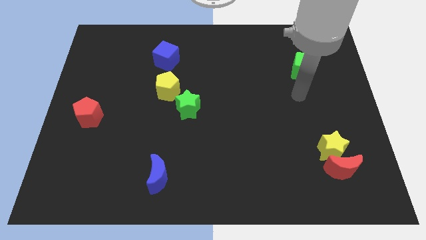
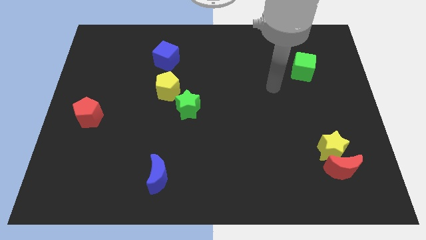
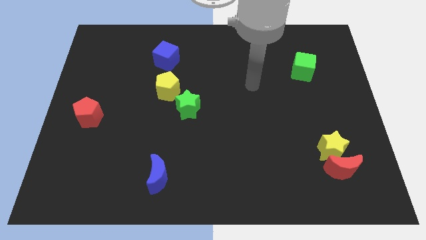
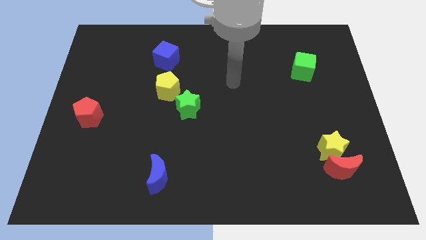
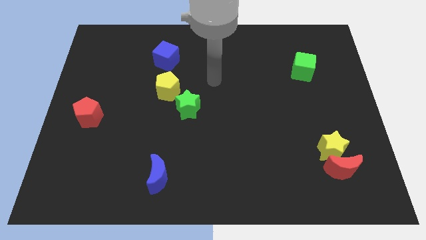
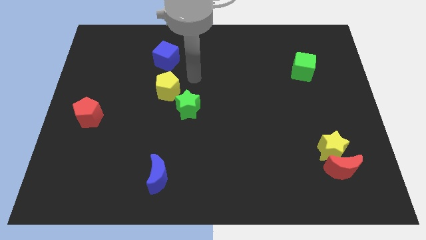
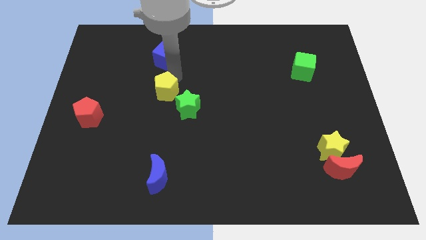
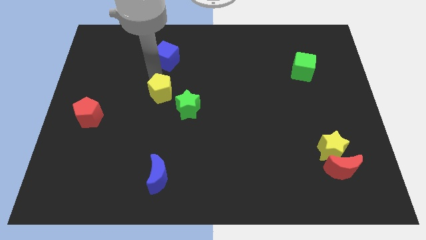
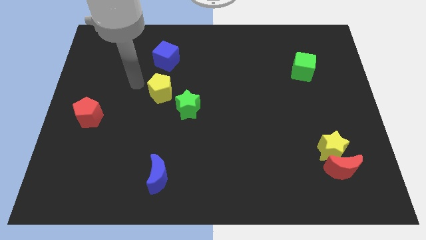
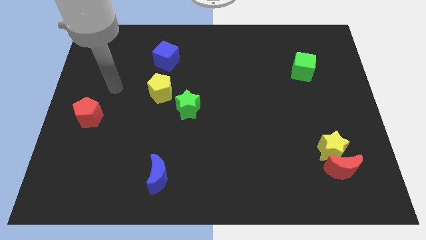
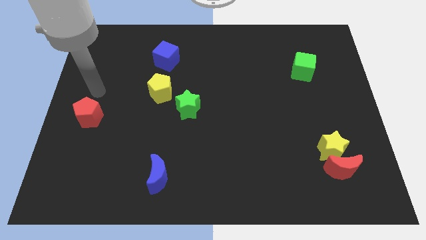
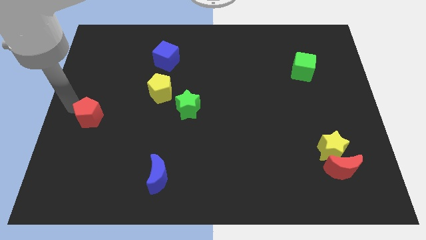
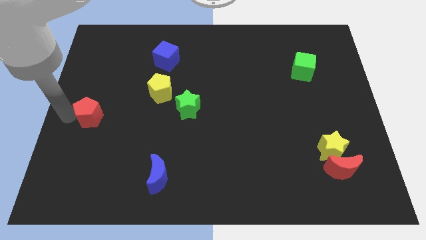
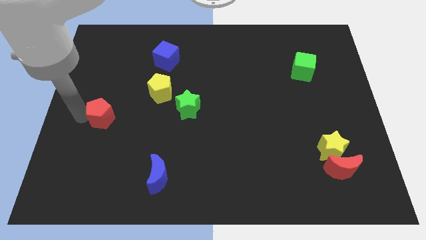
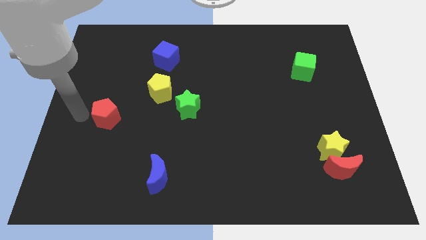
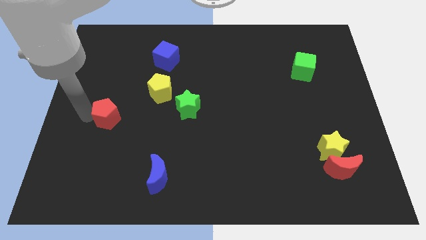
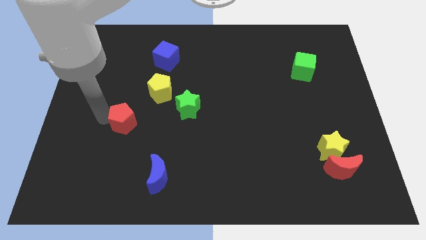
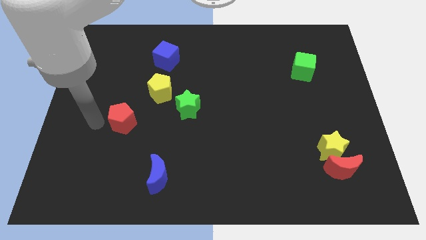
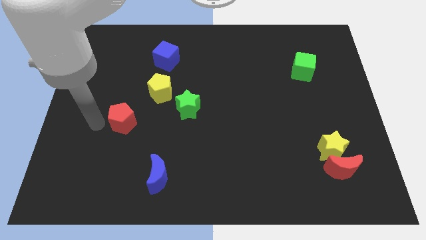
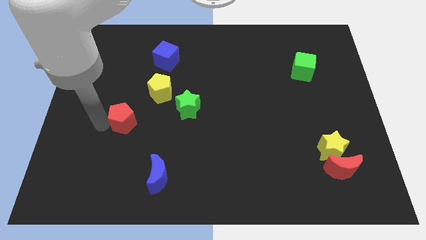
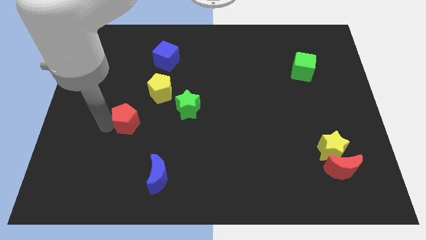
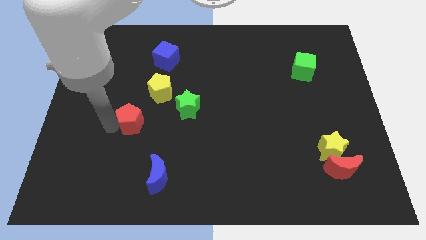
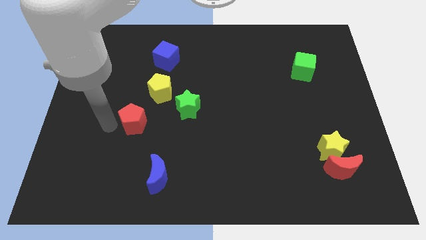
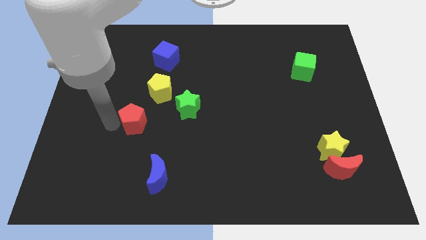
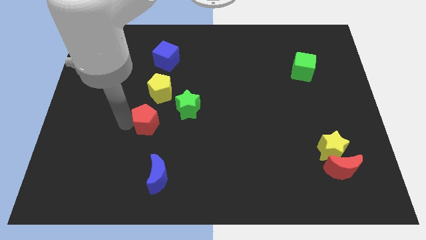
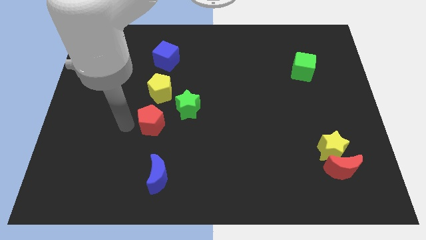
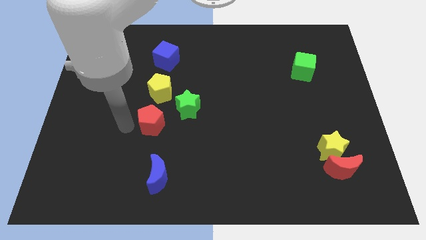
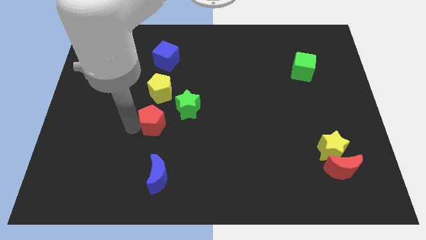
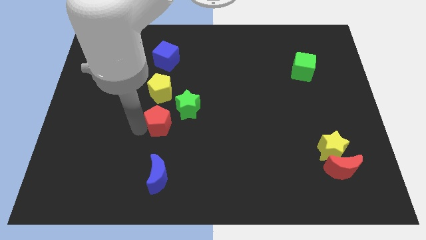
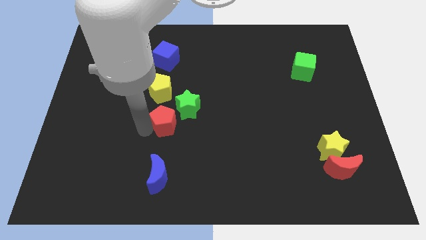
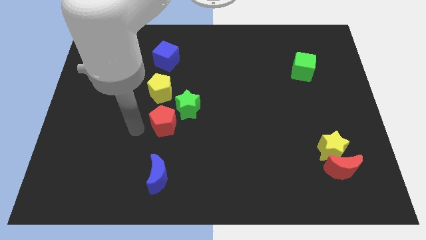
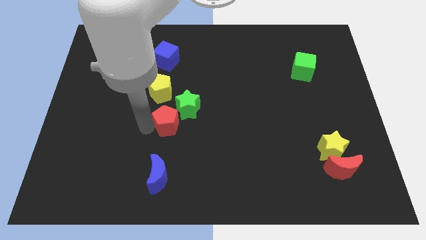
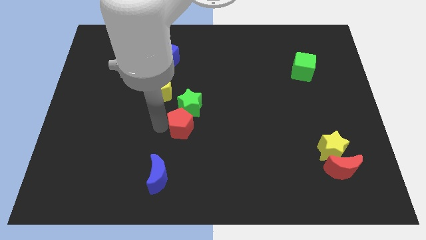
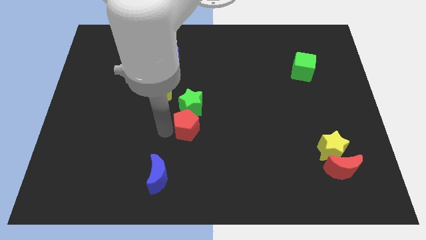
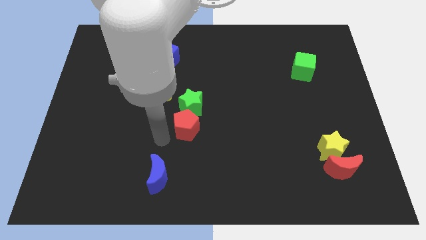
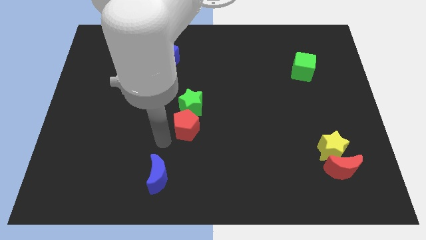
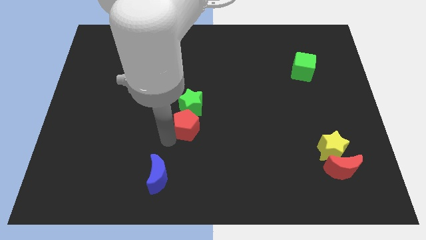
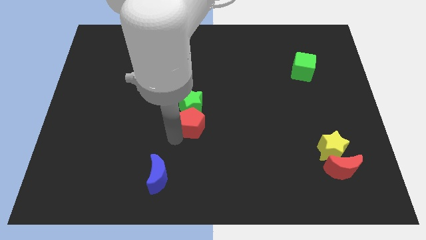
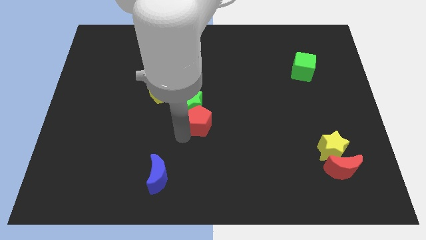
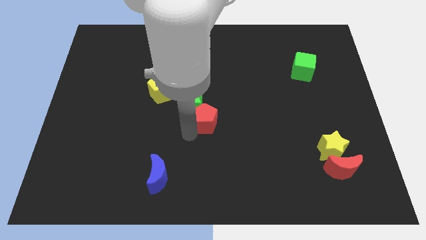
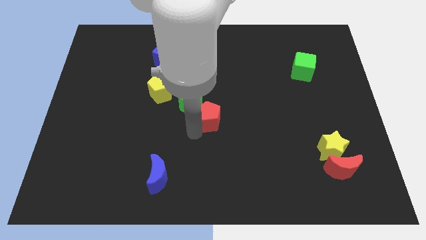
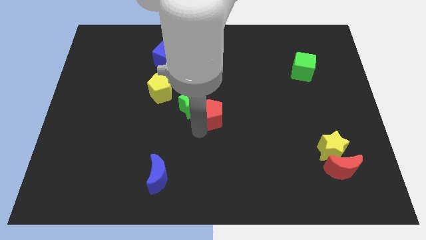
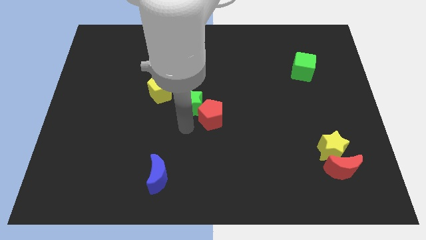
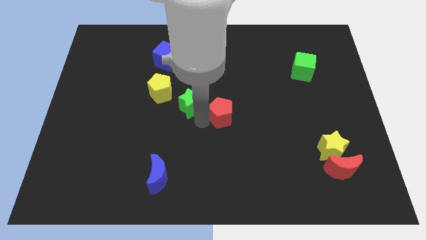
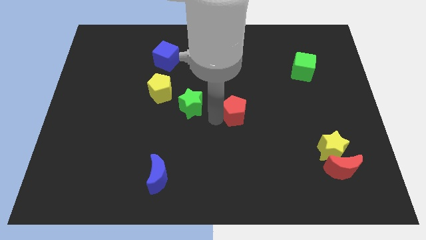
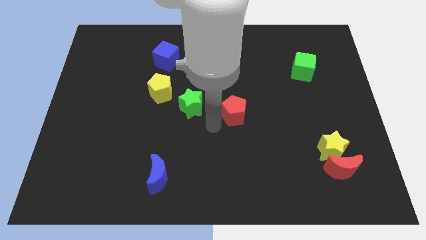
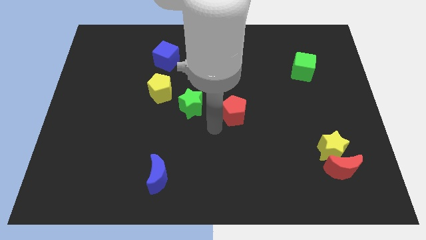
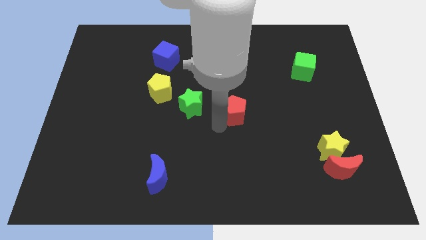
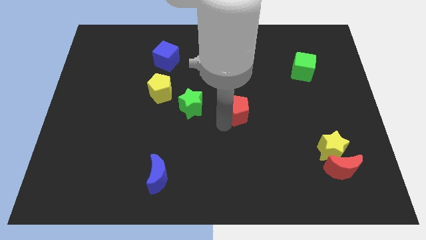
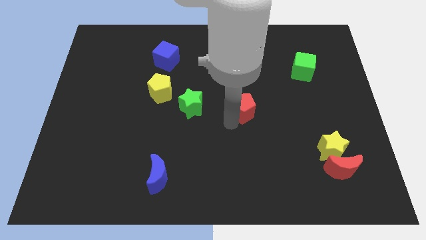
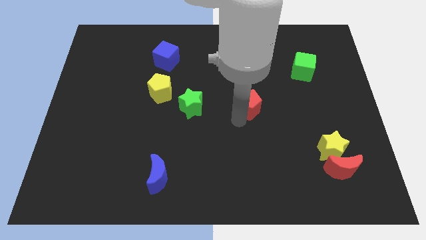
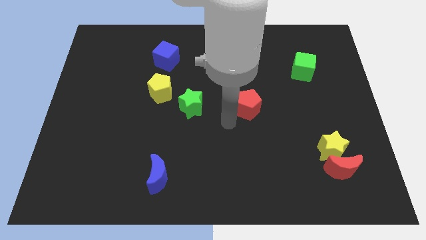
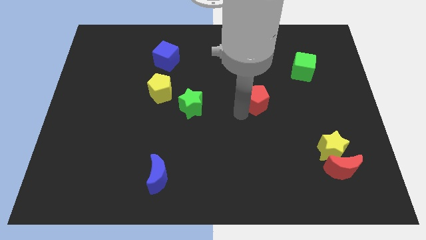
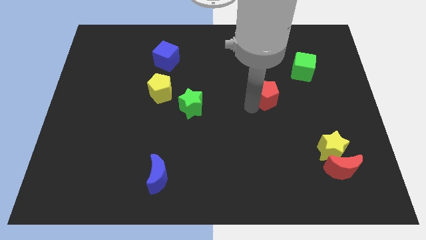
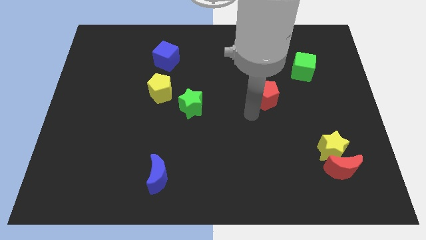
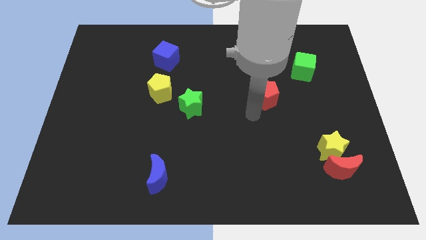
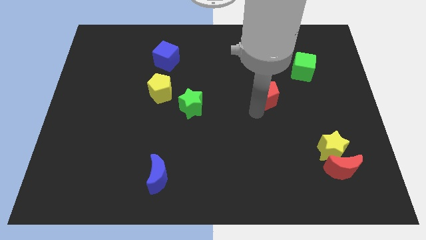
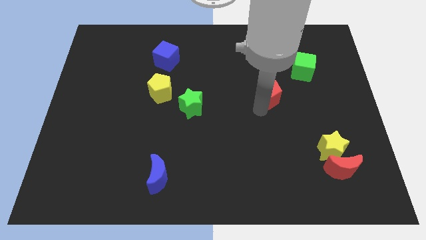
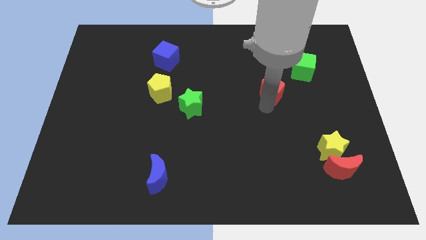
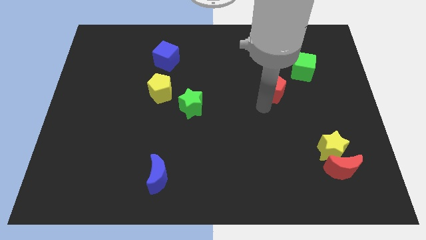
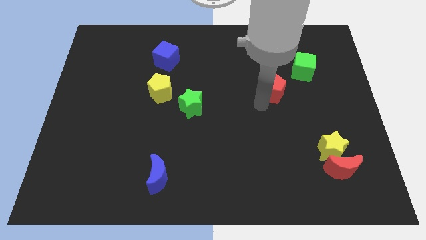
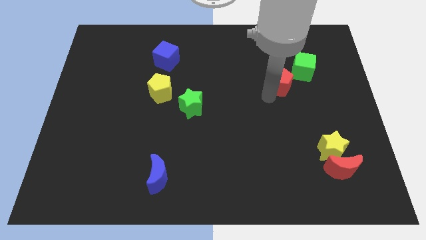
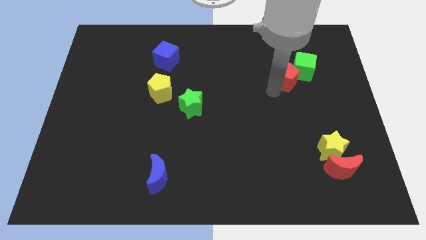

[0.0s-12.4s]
push the red pentagon next to the green cube
